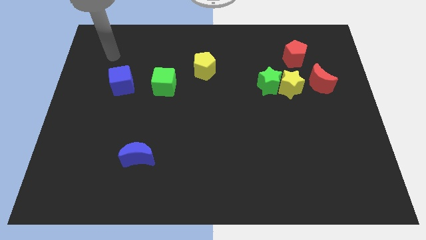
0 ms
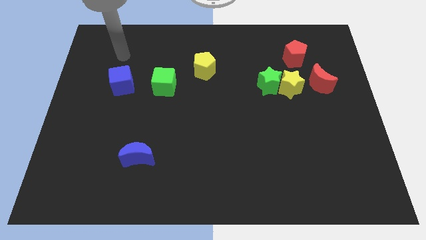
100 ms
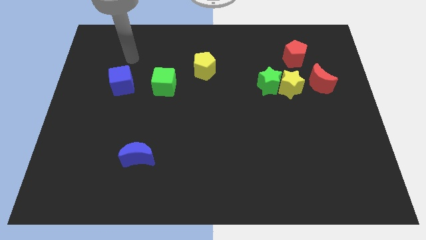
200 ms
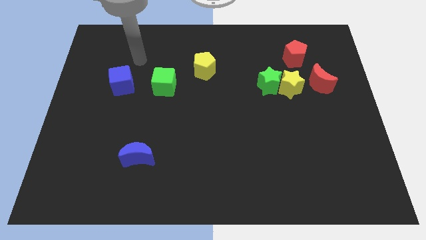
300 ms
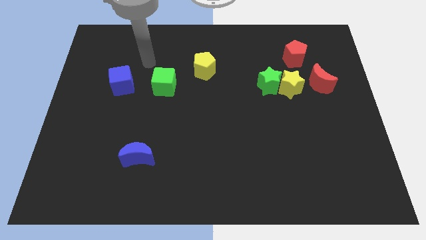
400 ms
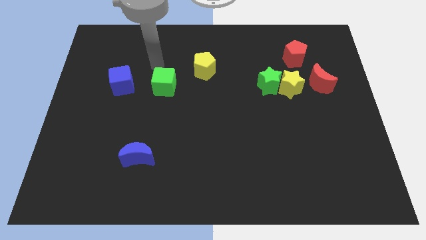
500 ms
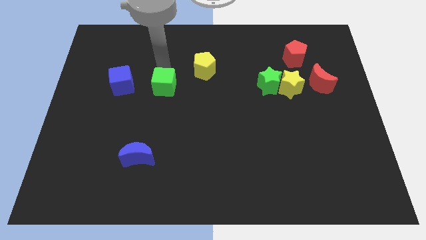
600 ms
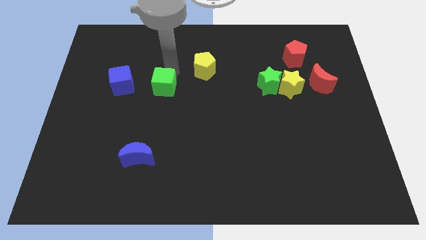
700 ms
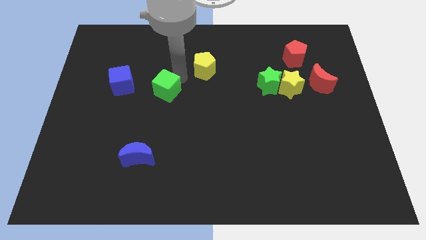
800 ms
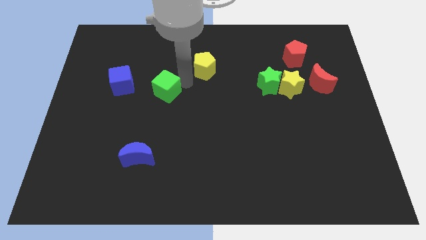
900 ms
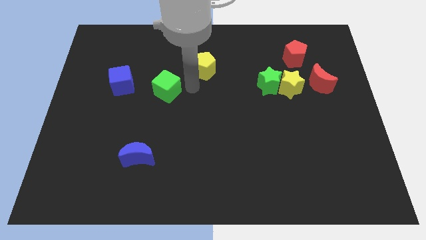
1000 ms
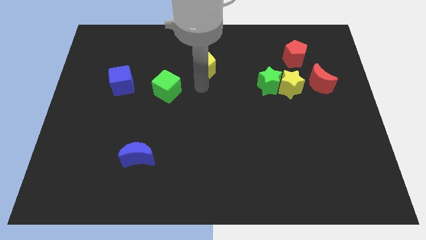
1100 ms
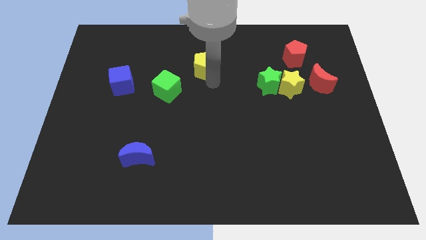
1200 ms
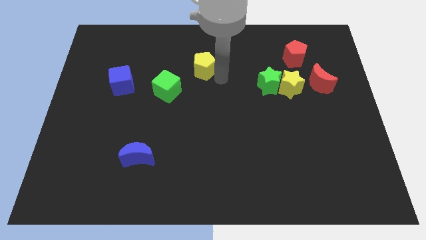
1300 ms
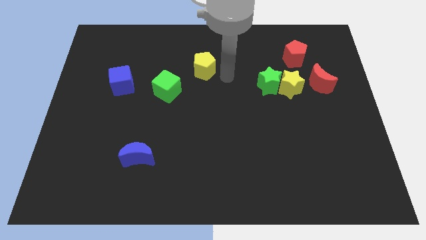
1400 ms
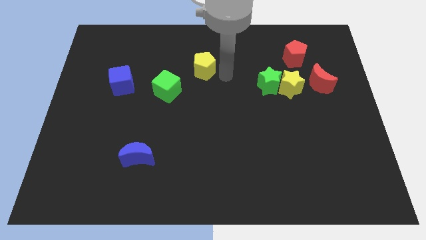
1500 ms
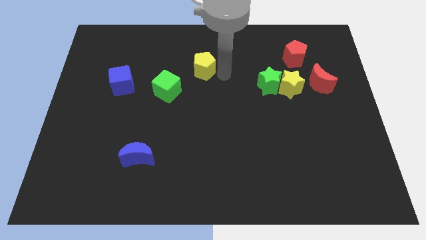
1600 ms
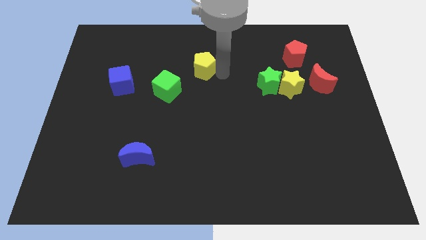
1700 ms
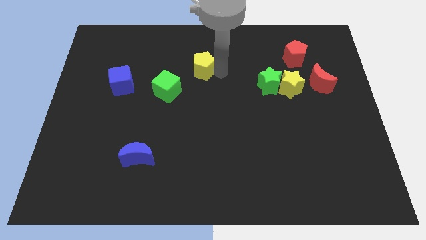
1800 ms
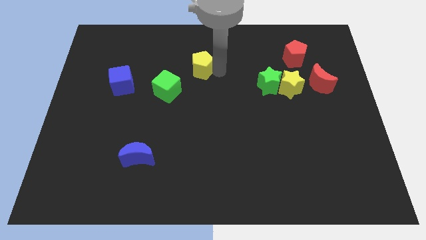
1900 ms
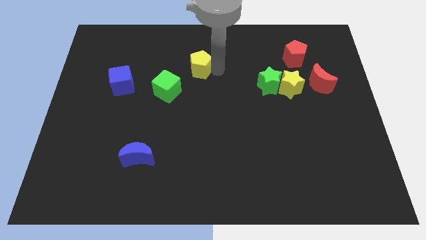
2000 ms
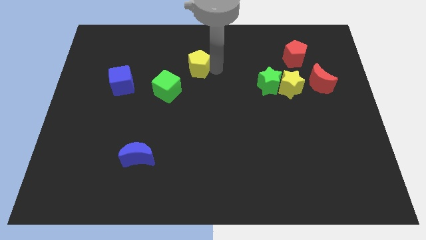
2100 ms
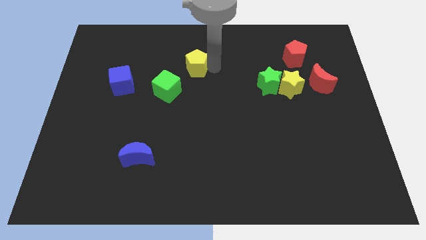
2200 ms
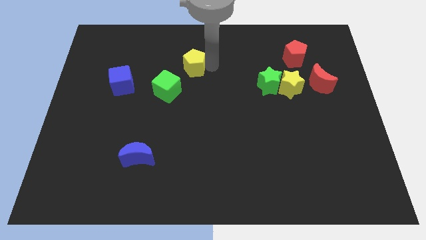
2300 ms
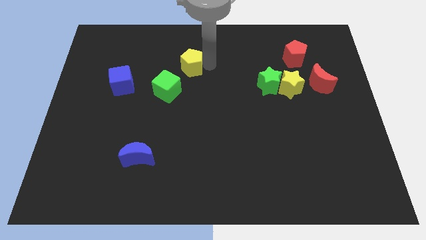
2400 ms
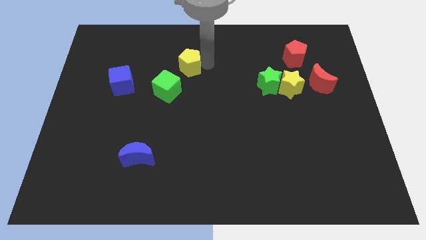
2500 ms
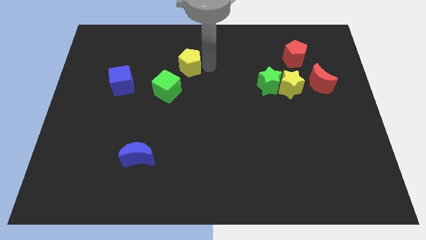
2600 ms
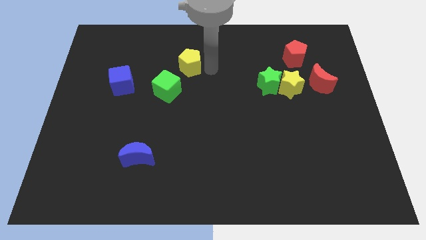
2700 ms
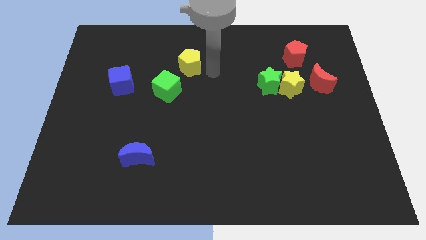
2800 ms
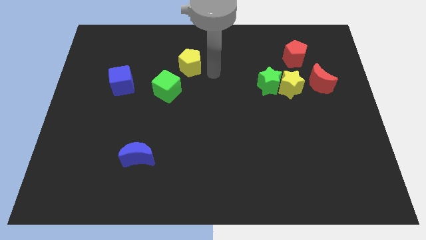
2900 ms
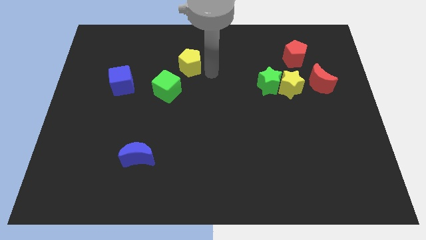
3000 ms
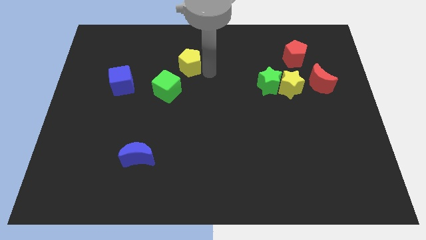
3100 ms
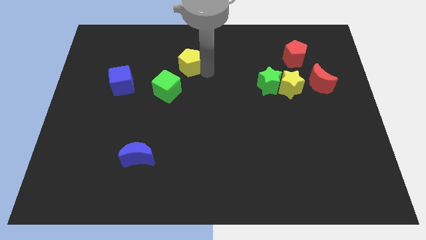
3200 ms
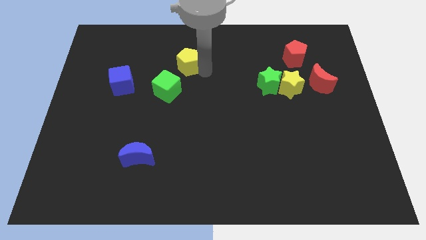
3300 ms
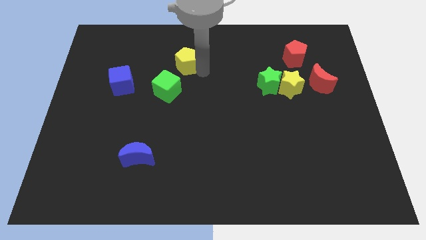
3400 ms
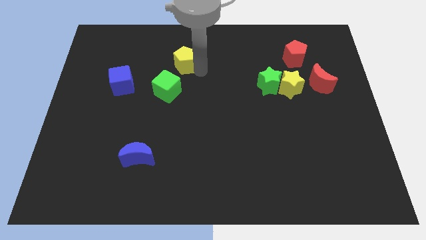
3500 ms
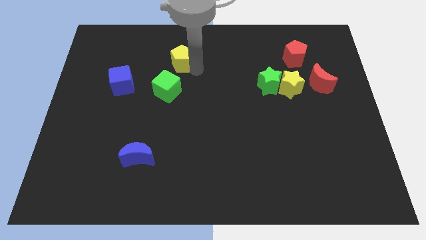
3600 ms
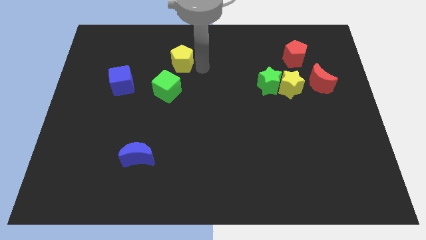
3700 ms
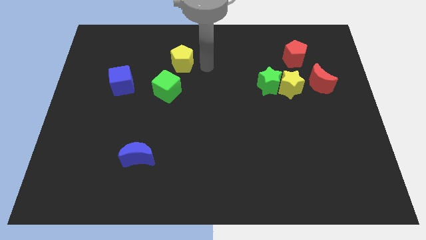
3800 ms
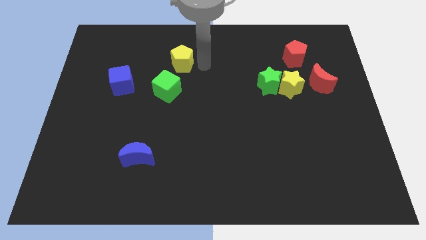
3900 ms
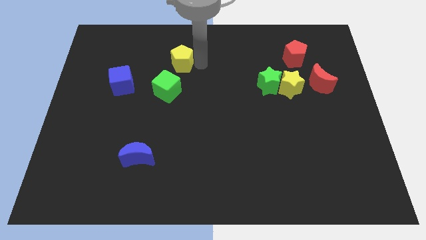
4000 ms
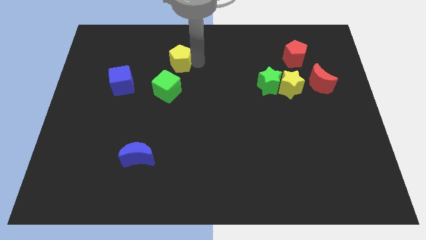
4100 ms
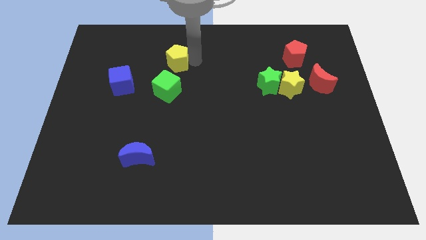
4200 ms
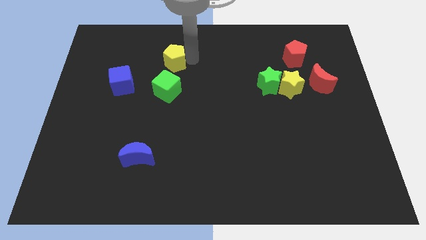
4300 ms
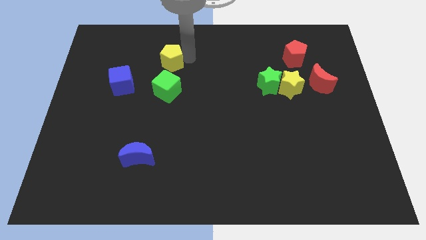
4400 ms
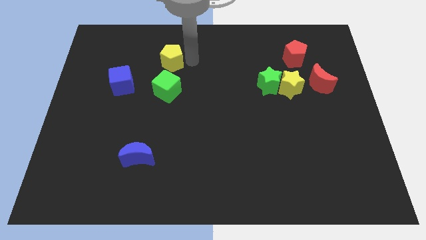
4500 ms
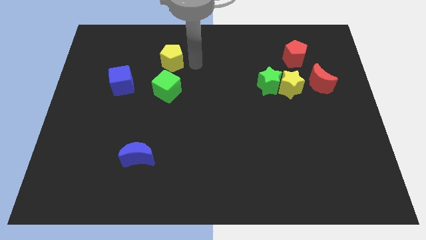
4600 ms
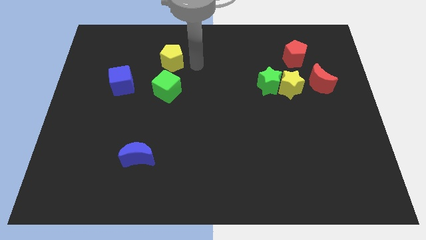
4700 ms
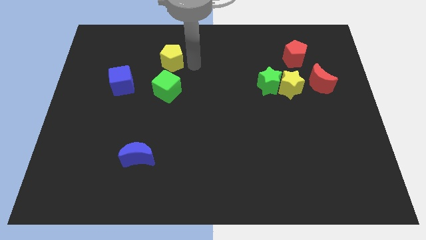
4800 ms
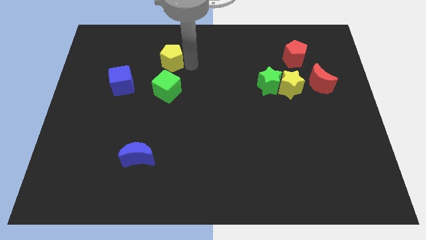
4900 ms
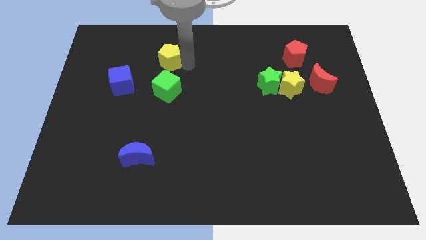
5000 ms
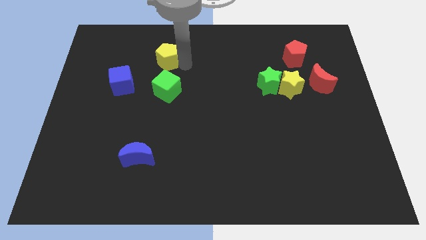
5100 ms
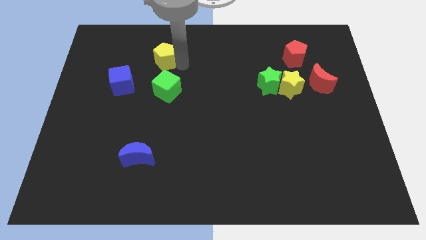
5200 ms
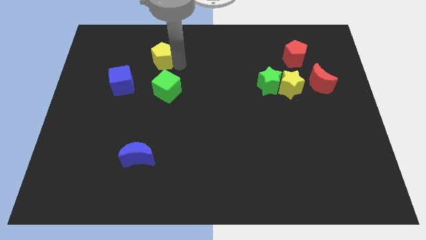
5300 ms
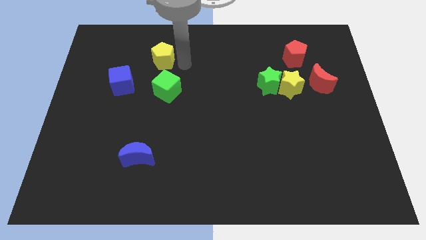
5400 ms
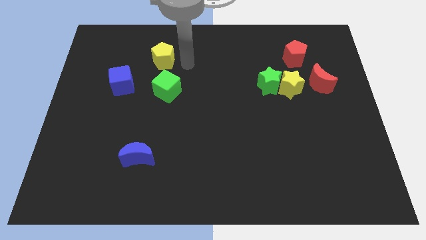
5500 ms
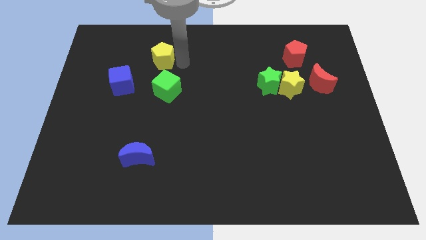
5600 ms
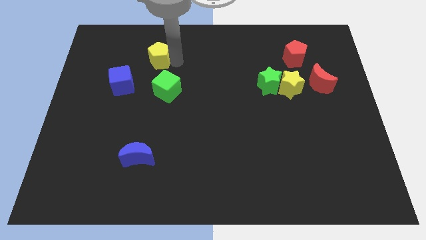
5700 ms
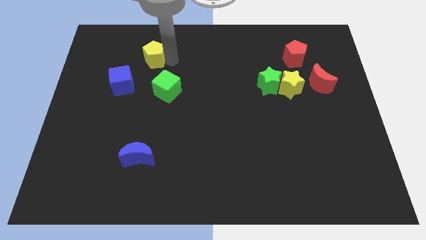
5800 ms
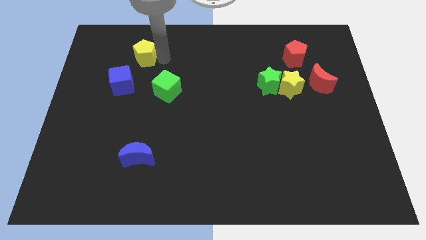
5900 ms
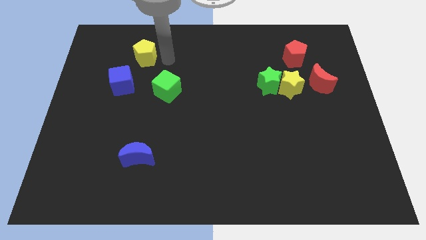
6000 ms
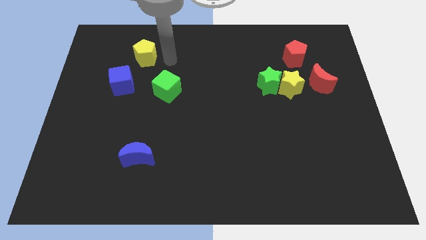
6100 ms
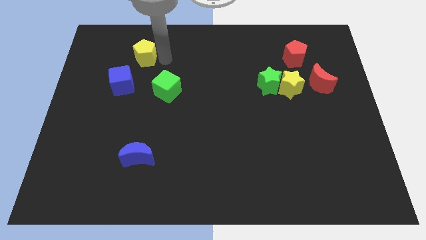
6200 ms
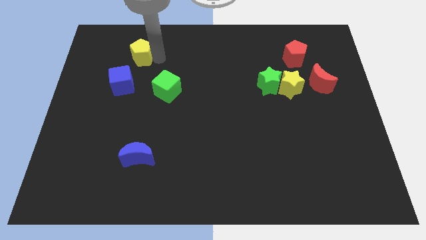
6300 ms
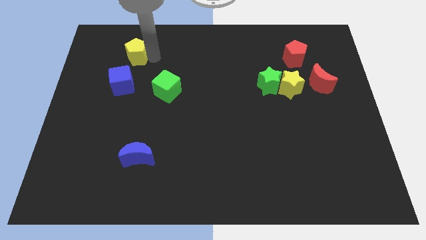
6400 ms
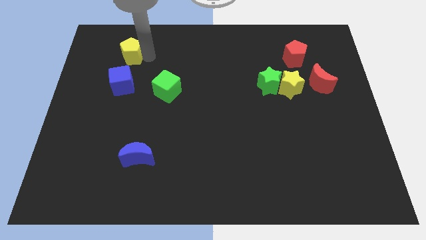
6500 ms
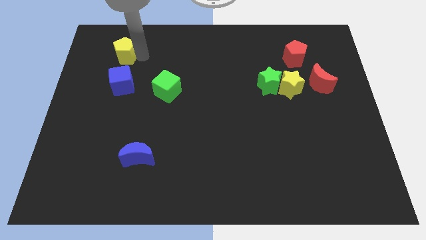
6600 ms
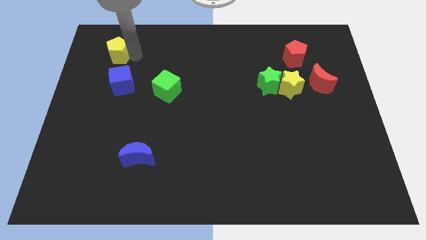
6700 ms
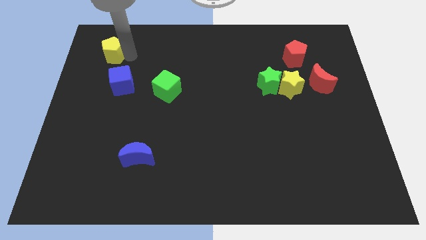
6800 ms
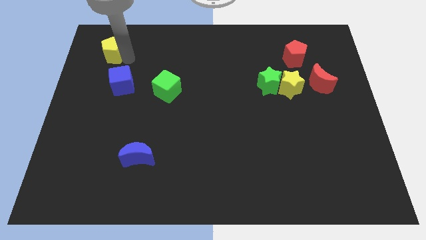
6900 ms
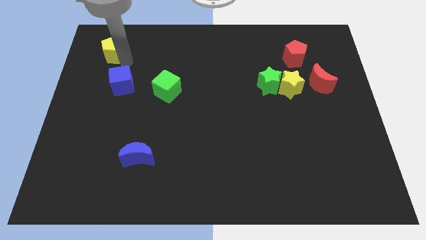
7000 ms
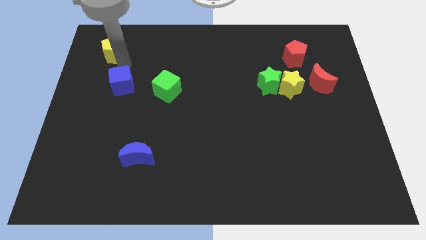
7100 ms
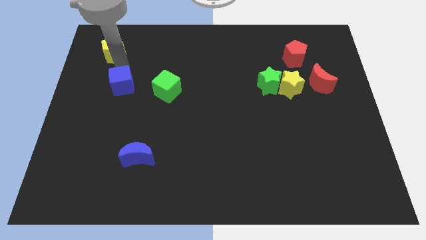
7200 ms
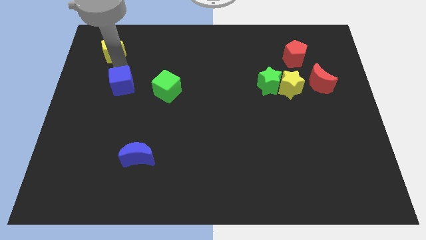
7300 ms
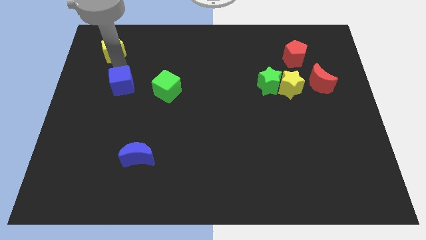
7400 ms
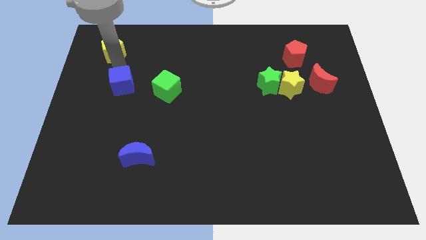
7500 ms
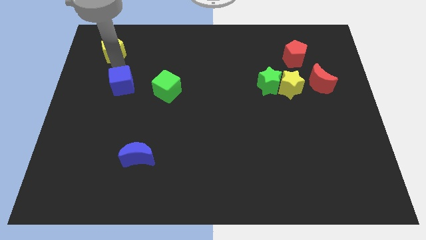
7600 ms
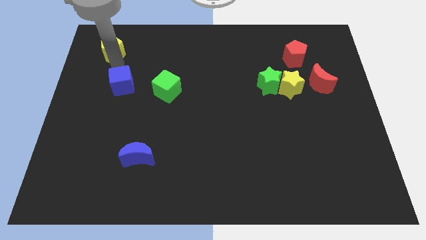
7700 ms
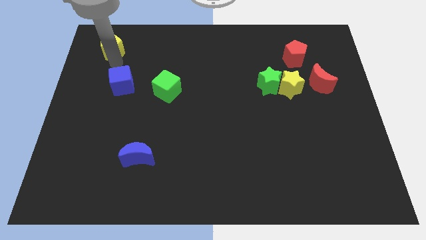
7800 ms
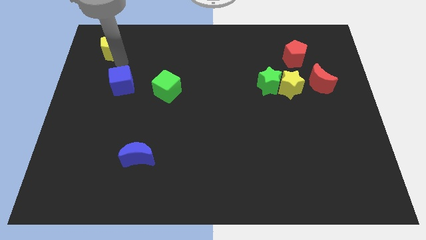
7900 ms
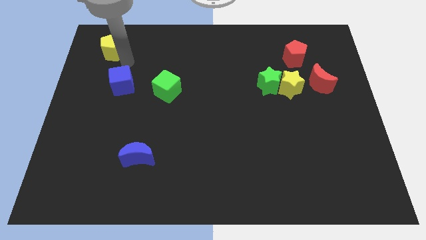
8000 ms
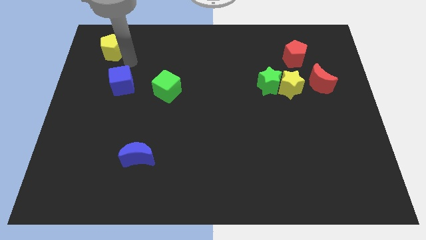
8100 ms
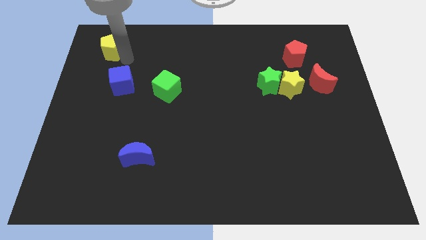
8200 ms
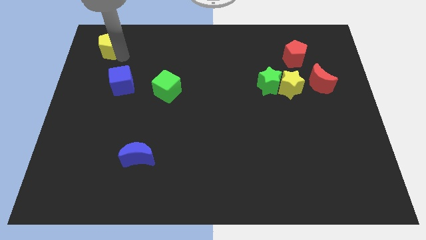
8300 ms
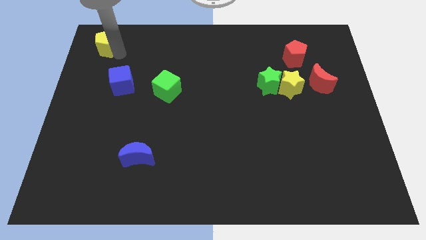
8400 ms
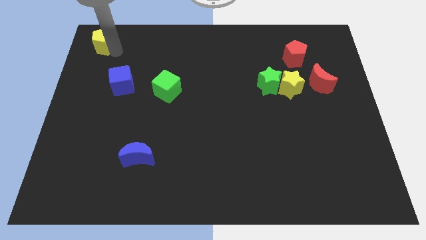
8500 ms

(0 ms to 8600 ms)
push the yellow pentagon to the top left
